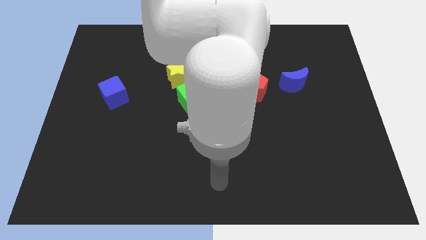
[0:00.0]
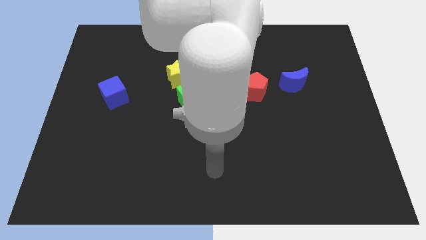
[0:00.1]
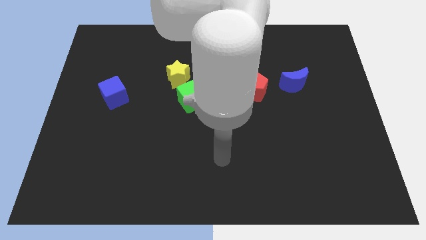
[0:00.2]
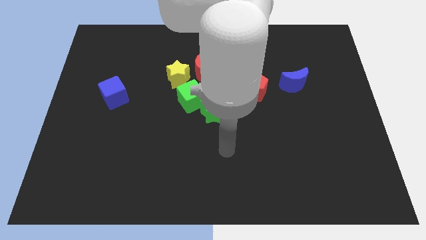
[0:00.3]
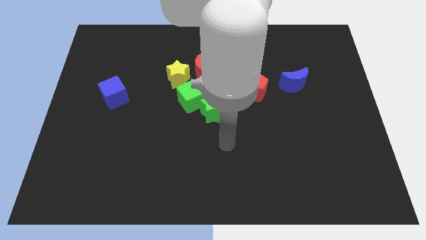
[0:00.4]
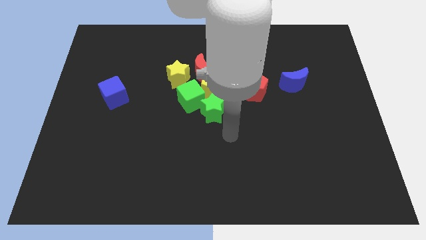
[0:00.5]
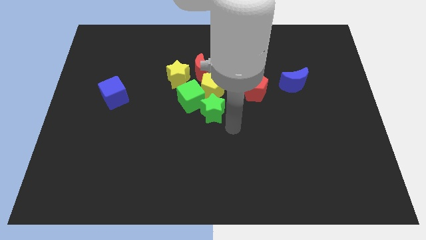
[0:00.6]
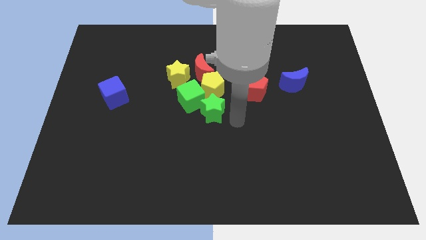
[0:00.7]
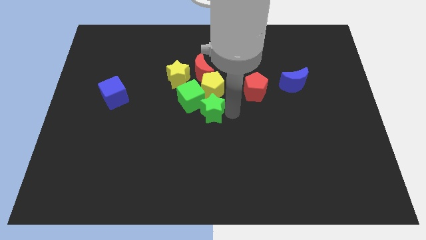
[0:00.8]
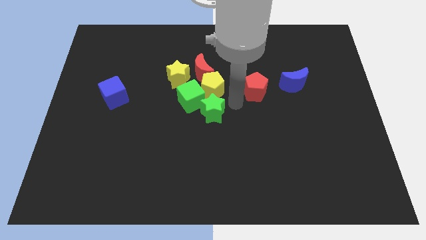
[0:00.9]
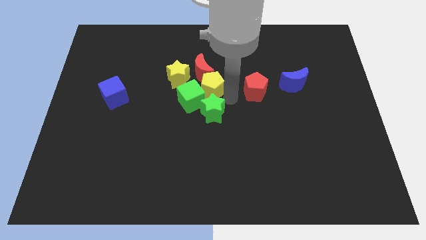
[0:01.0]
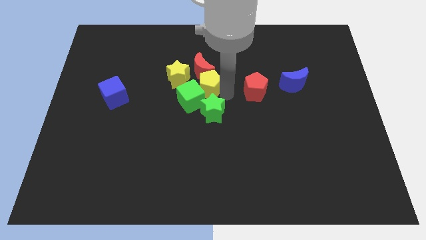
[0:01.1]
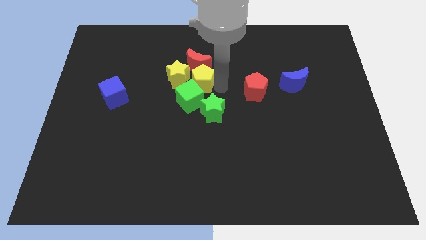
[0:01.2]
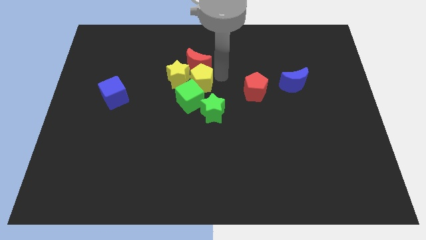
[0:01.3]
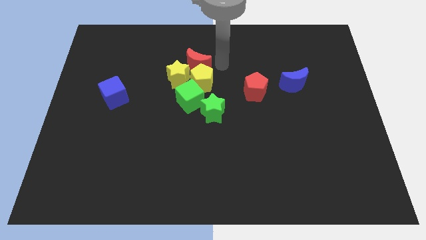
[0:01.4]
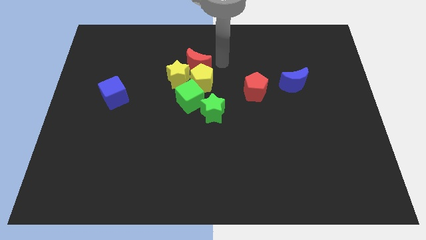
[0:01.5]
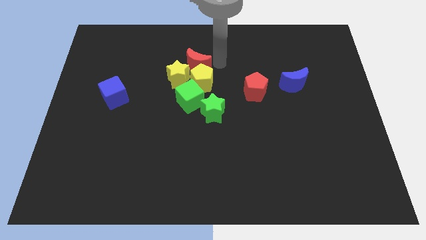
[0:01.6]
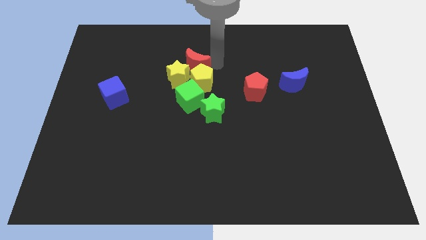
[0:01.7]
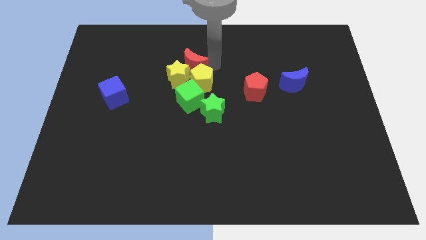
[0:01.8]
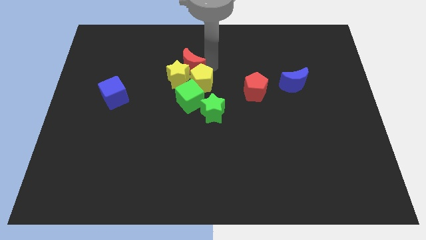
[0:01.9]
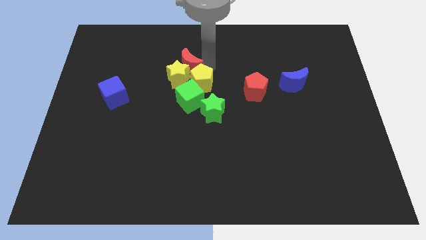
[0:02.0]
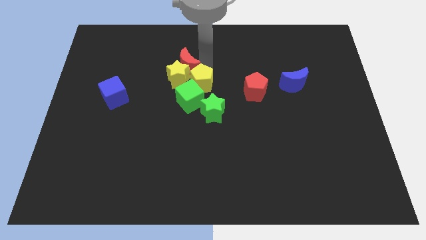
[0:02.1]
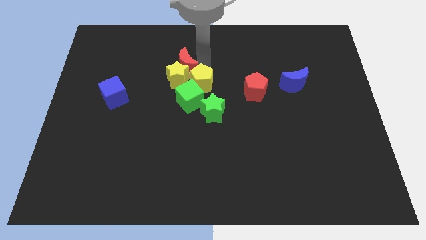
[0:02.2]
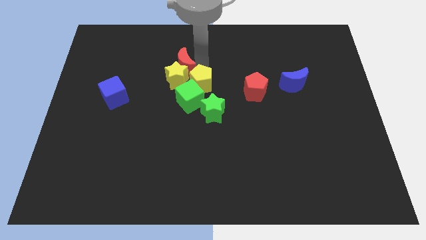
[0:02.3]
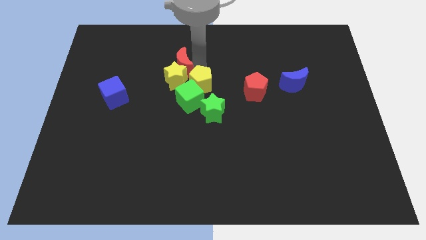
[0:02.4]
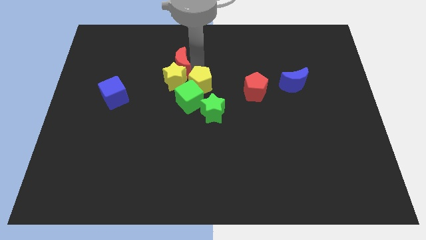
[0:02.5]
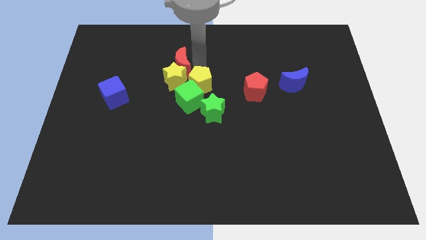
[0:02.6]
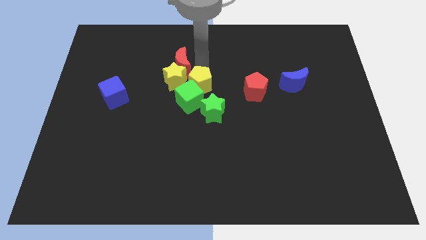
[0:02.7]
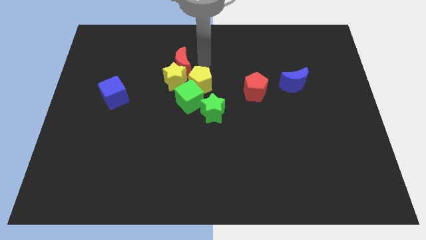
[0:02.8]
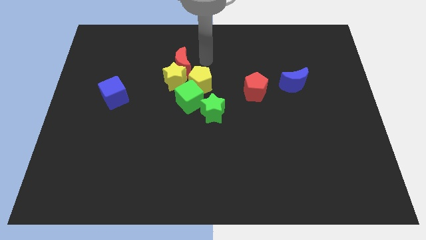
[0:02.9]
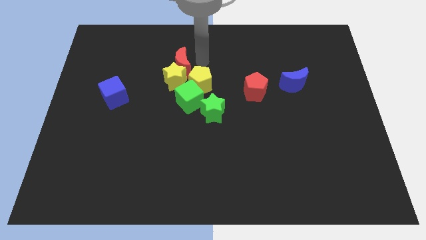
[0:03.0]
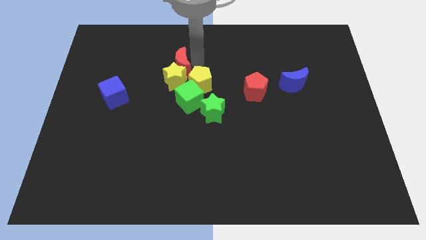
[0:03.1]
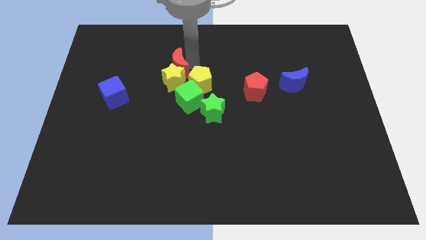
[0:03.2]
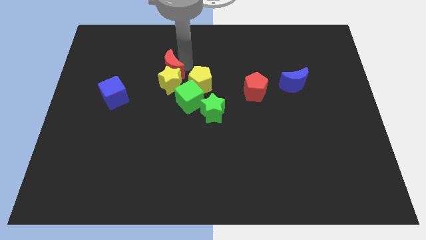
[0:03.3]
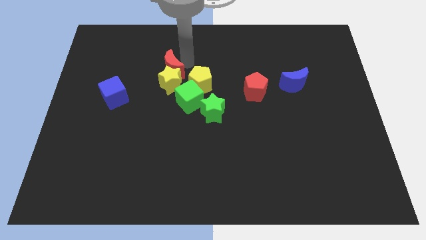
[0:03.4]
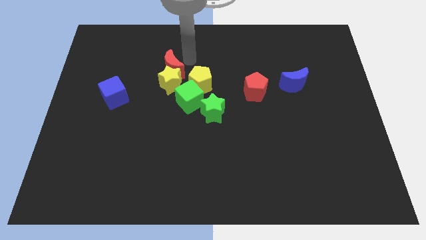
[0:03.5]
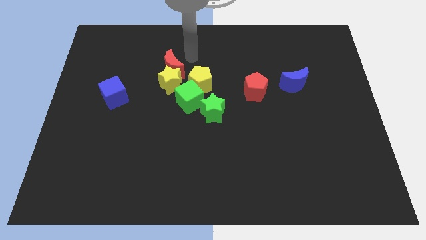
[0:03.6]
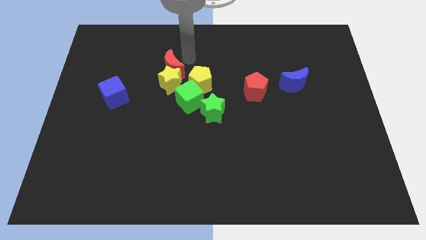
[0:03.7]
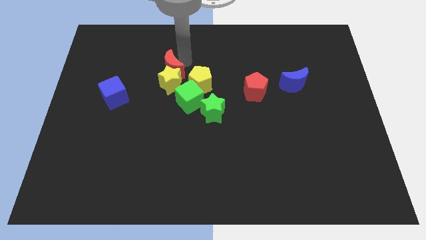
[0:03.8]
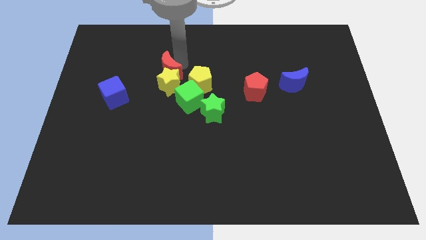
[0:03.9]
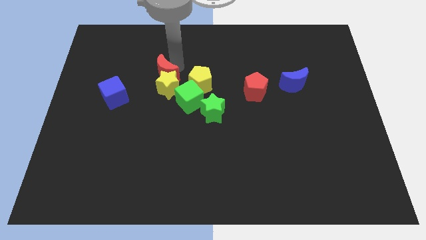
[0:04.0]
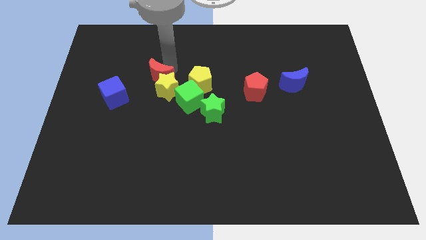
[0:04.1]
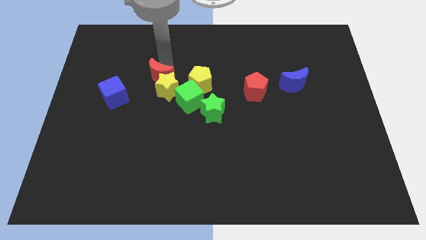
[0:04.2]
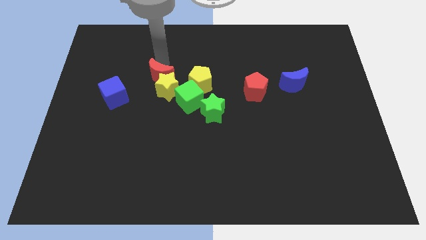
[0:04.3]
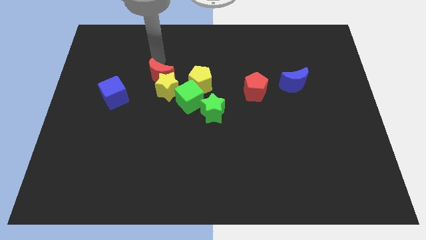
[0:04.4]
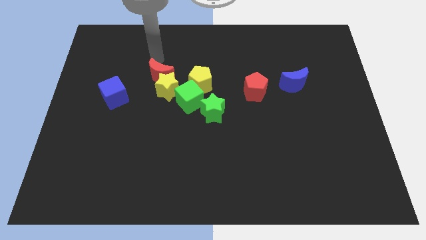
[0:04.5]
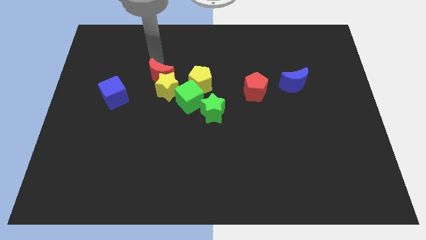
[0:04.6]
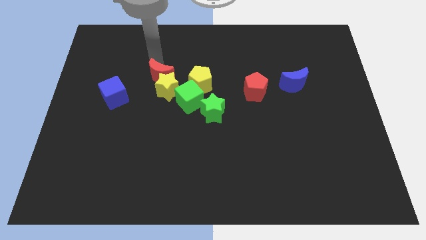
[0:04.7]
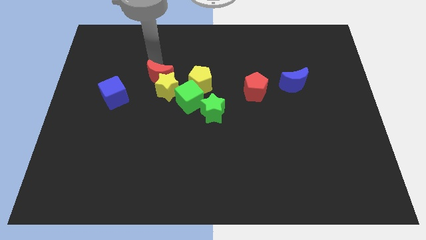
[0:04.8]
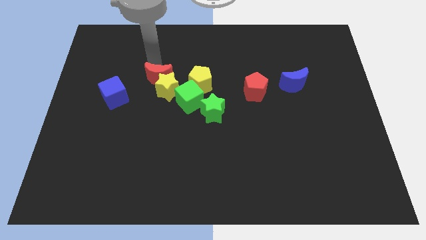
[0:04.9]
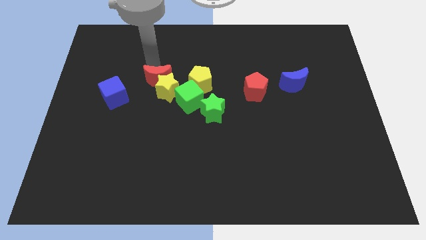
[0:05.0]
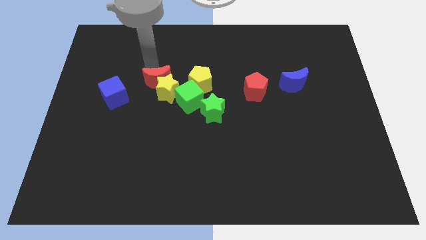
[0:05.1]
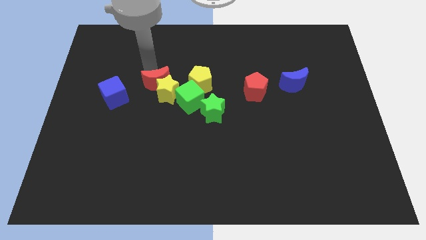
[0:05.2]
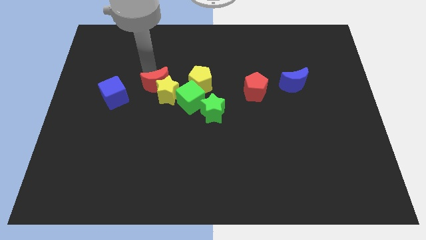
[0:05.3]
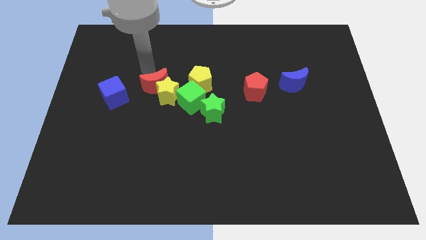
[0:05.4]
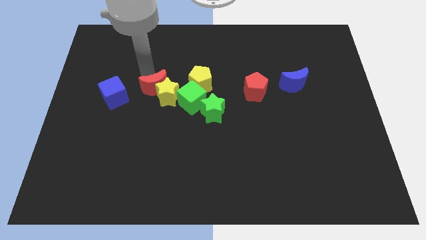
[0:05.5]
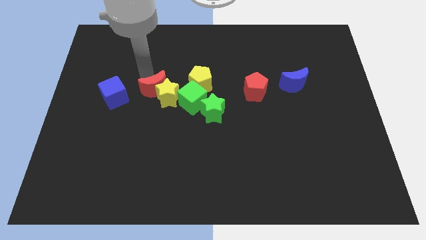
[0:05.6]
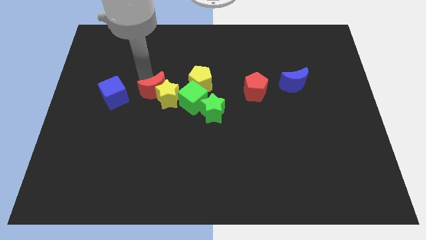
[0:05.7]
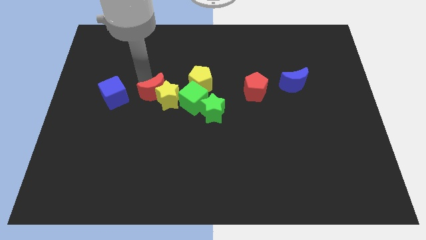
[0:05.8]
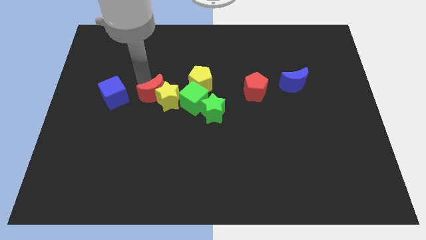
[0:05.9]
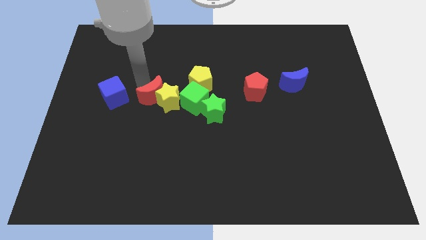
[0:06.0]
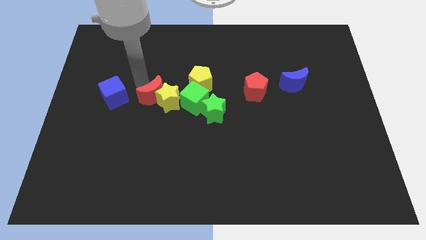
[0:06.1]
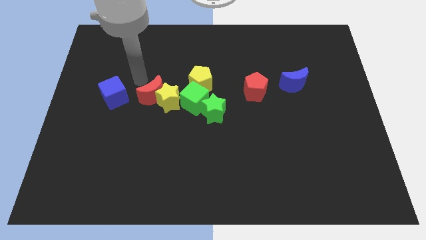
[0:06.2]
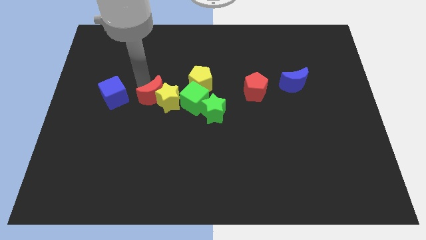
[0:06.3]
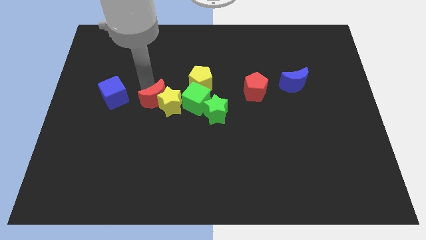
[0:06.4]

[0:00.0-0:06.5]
slide the red moon to the bottom left side of the yellow pentagon

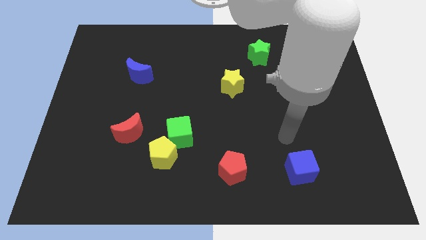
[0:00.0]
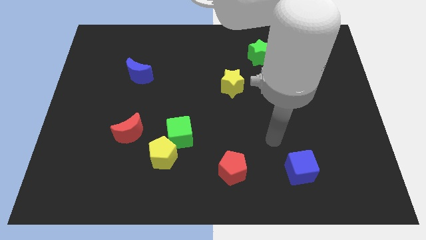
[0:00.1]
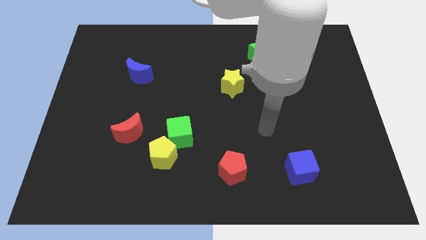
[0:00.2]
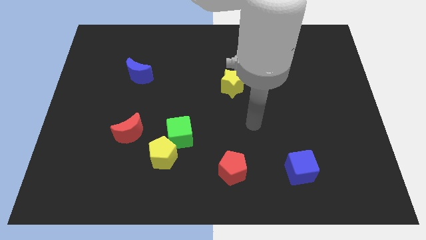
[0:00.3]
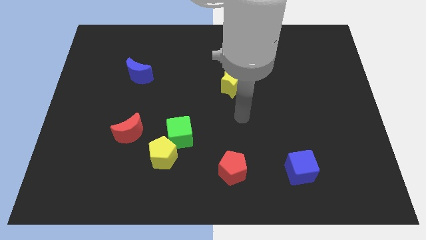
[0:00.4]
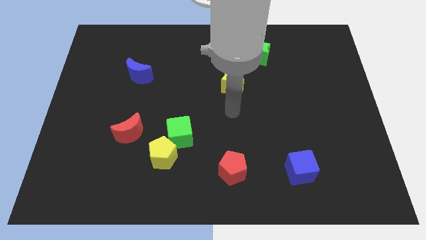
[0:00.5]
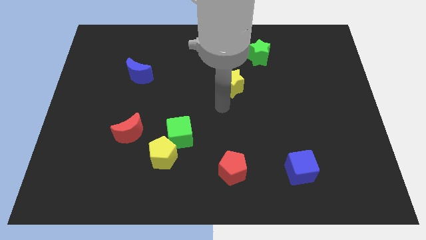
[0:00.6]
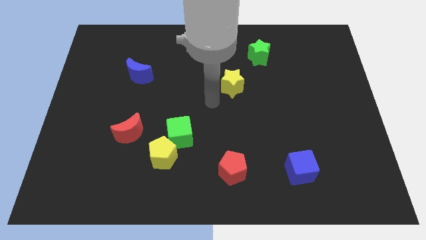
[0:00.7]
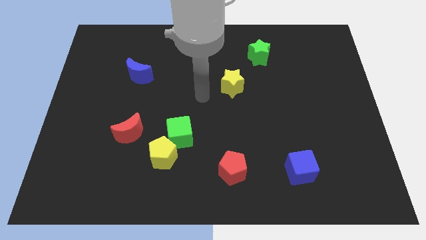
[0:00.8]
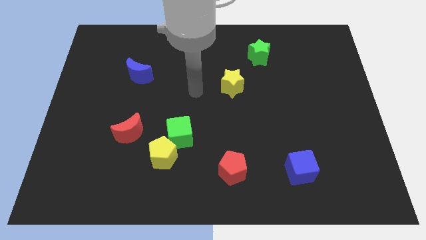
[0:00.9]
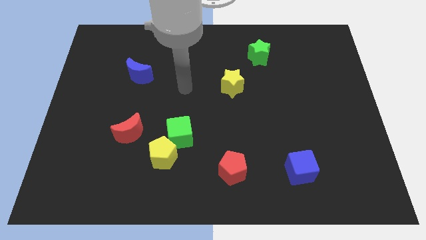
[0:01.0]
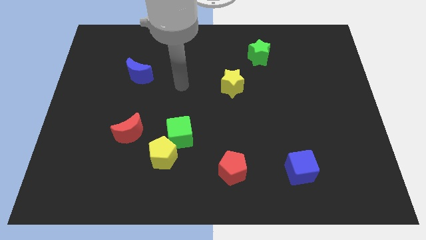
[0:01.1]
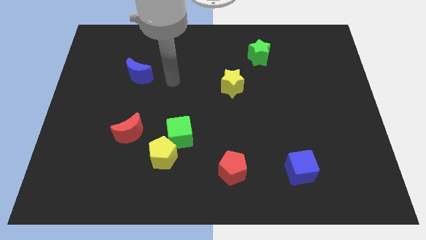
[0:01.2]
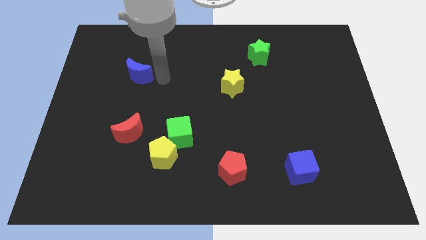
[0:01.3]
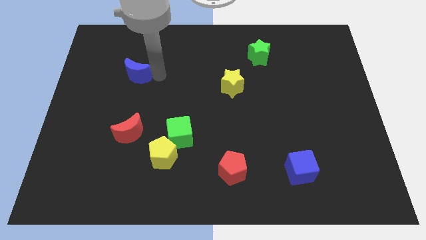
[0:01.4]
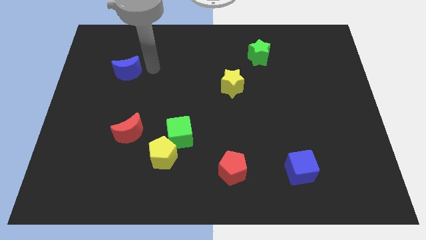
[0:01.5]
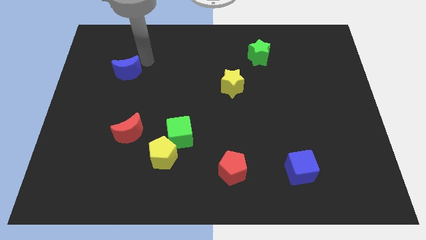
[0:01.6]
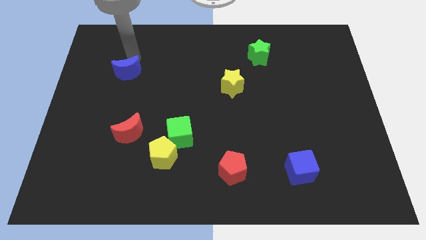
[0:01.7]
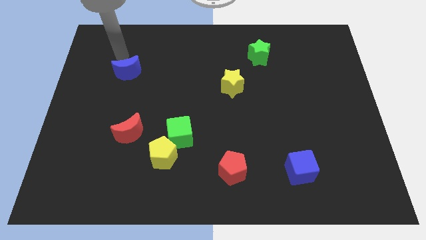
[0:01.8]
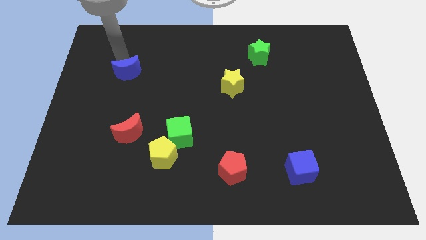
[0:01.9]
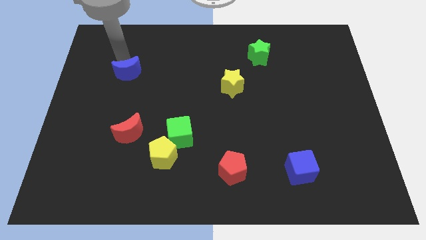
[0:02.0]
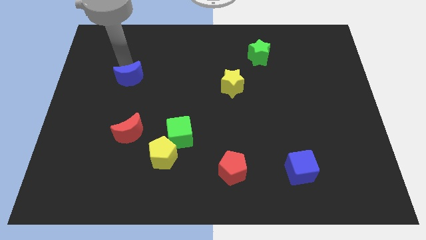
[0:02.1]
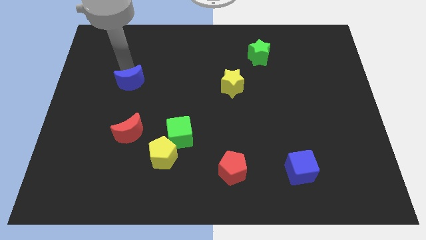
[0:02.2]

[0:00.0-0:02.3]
move the blue moon above the red moon
